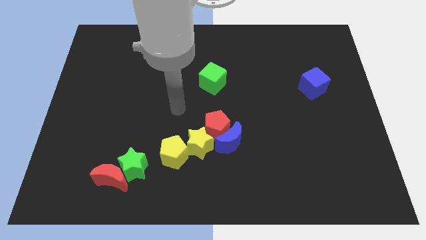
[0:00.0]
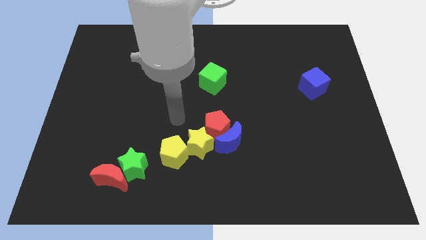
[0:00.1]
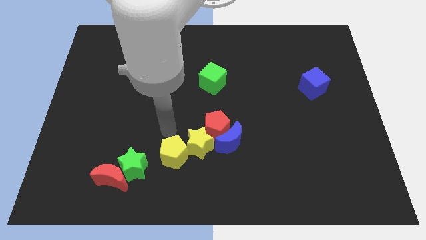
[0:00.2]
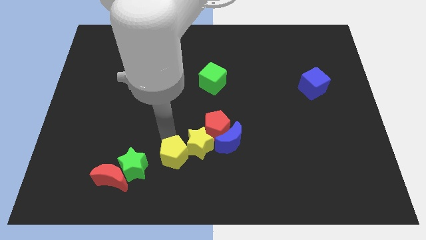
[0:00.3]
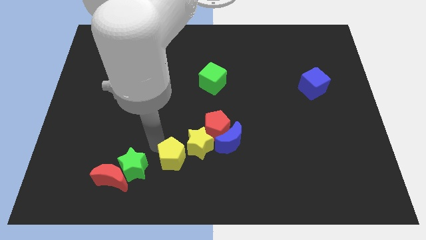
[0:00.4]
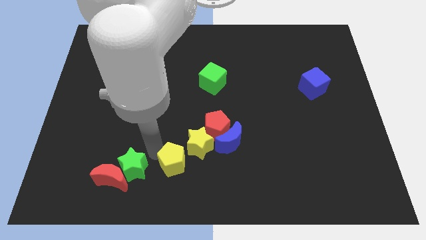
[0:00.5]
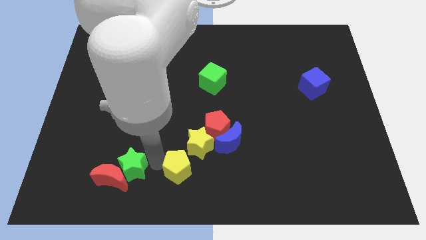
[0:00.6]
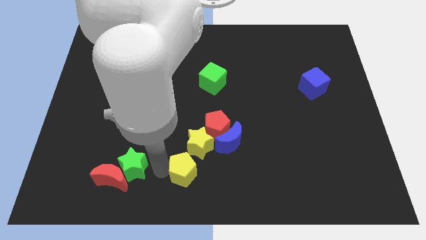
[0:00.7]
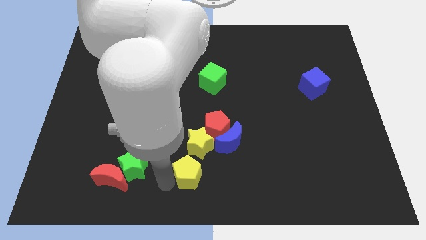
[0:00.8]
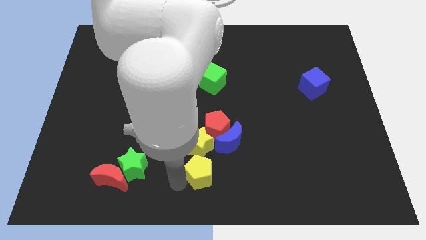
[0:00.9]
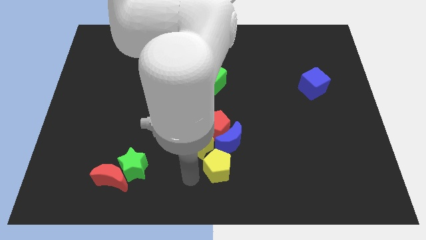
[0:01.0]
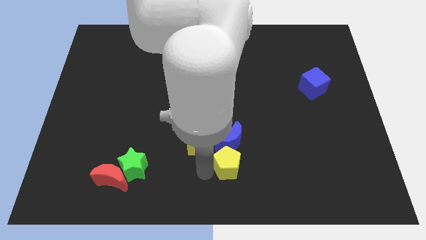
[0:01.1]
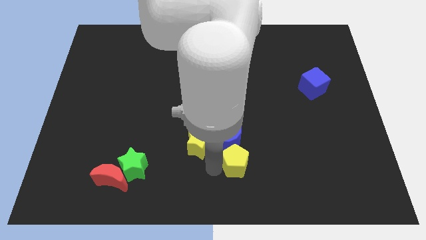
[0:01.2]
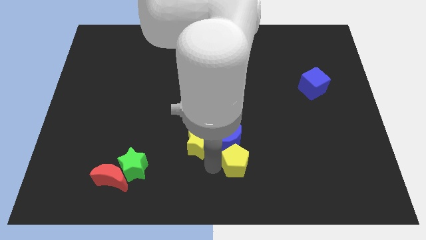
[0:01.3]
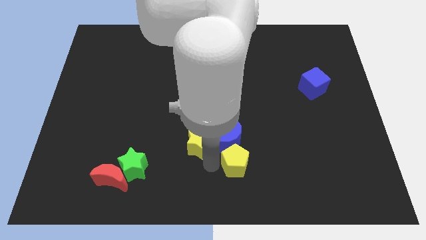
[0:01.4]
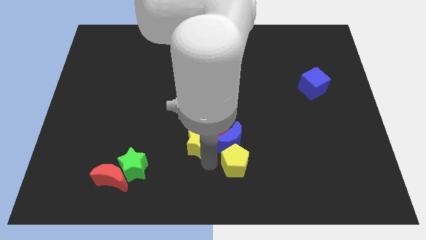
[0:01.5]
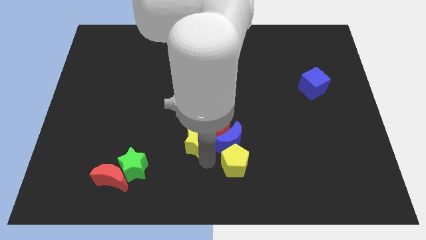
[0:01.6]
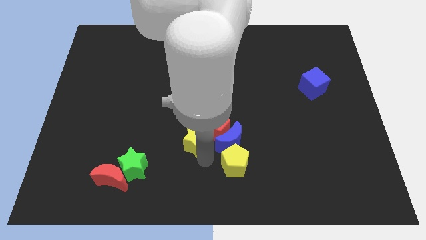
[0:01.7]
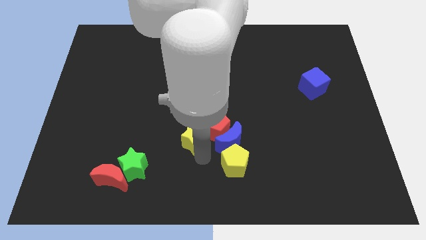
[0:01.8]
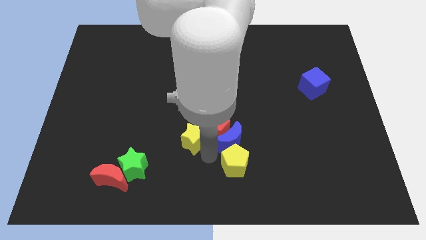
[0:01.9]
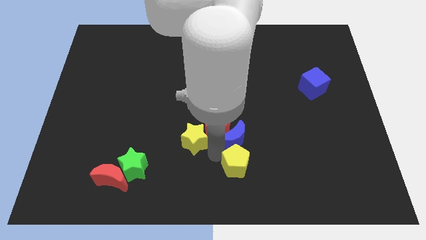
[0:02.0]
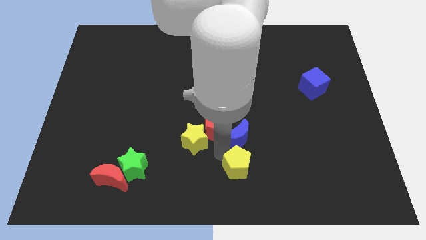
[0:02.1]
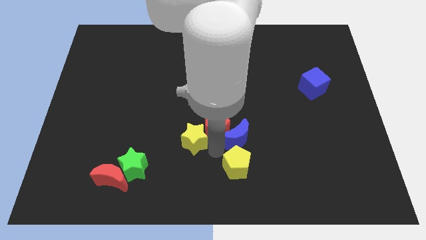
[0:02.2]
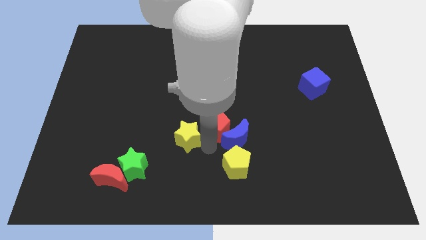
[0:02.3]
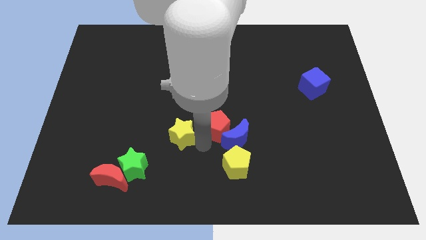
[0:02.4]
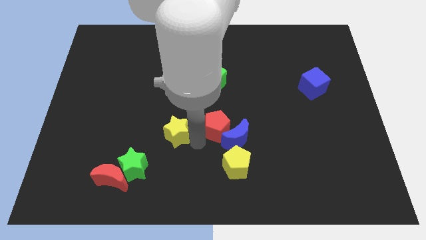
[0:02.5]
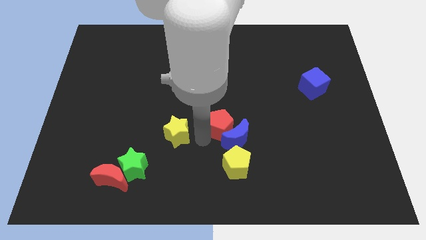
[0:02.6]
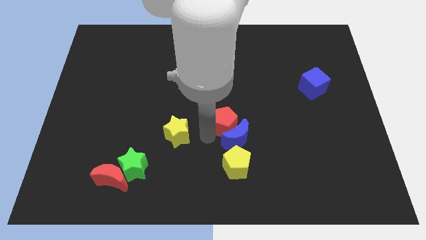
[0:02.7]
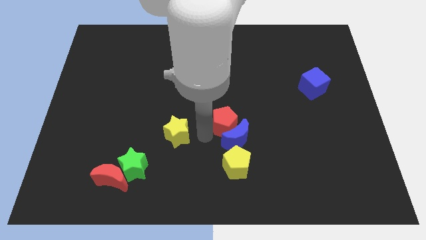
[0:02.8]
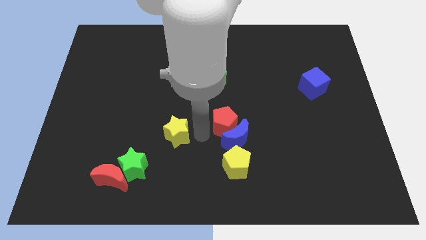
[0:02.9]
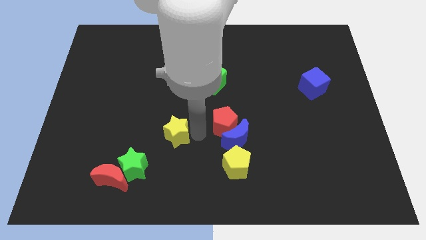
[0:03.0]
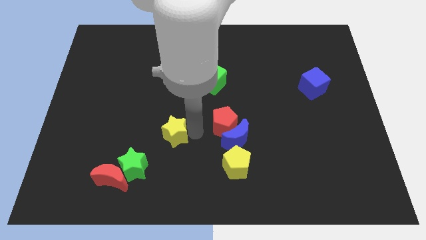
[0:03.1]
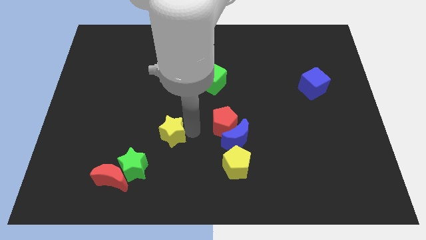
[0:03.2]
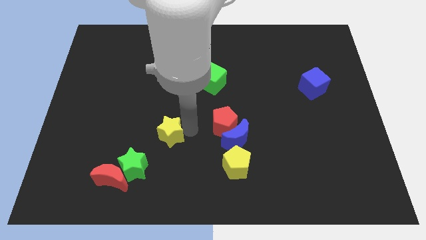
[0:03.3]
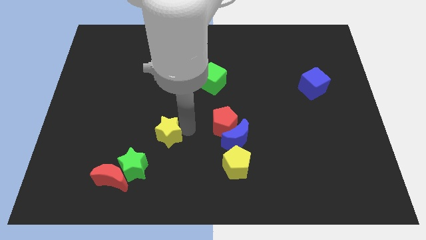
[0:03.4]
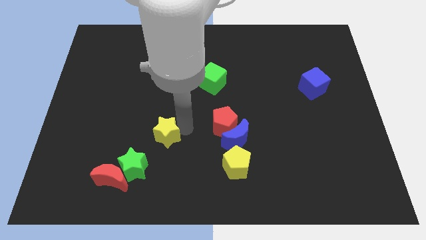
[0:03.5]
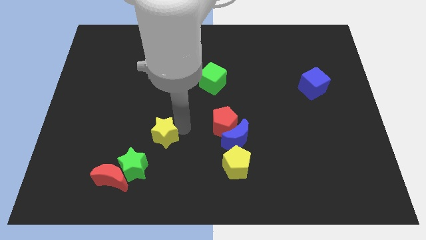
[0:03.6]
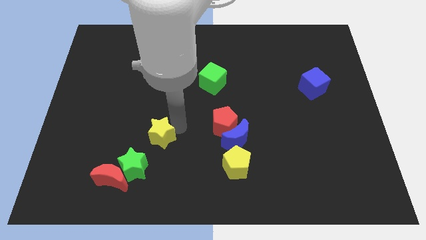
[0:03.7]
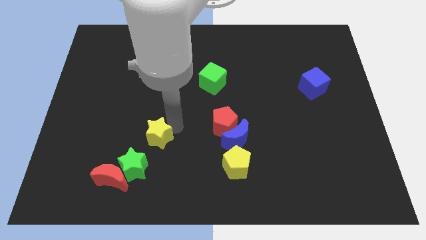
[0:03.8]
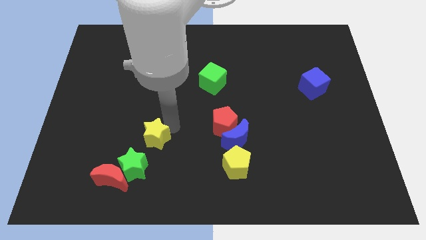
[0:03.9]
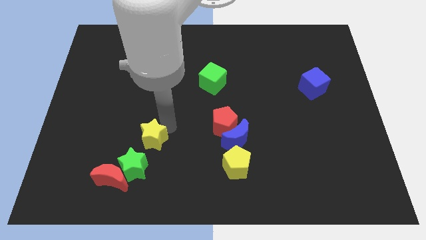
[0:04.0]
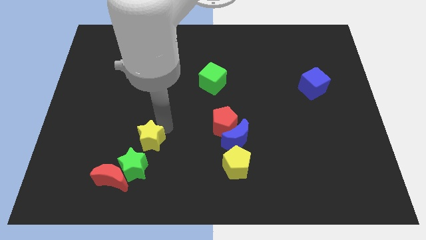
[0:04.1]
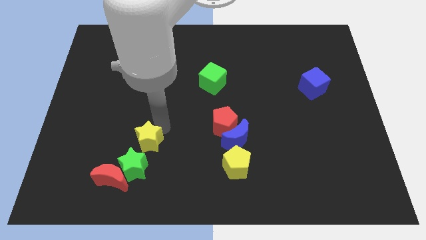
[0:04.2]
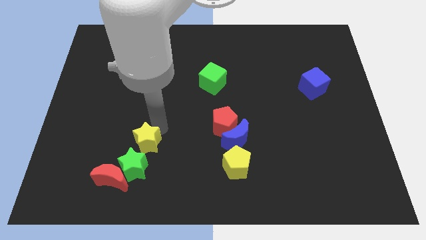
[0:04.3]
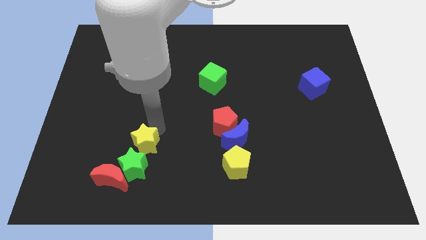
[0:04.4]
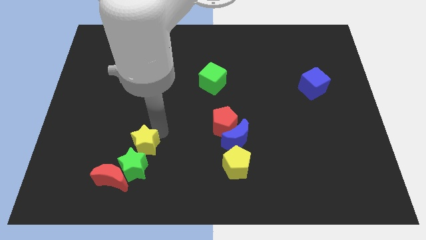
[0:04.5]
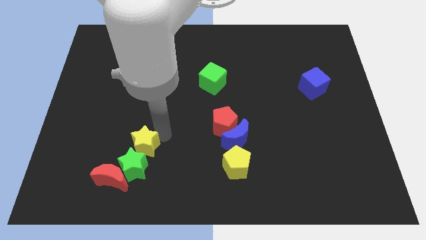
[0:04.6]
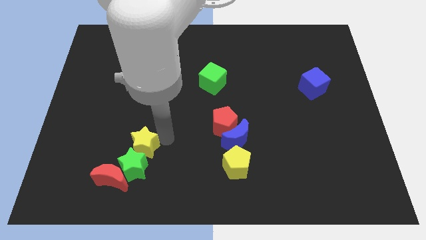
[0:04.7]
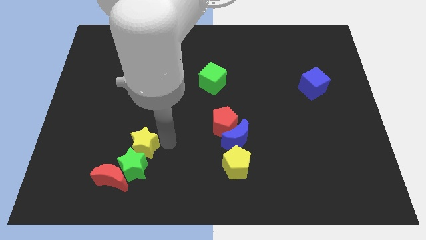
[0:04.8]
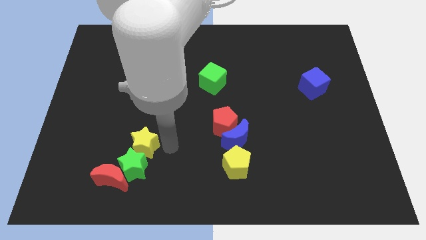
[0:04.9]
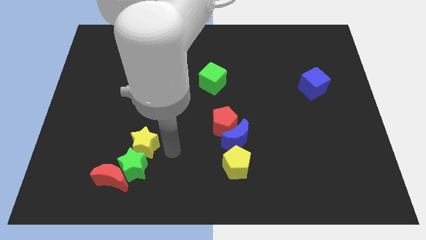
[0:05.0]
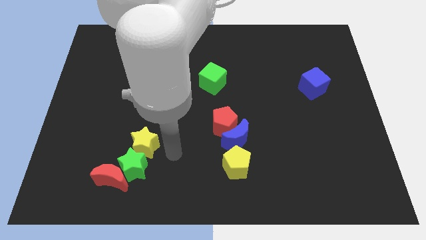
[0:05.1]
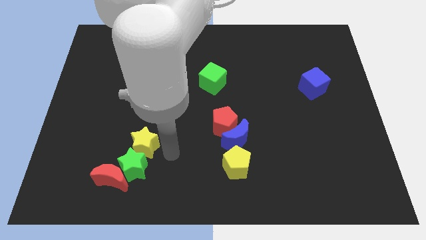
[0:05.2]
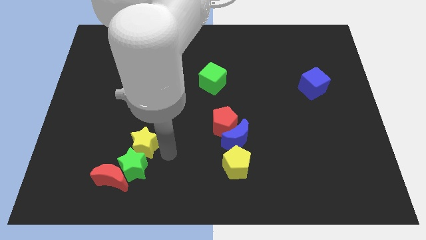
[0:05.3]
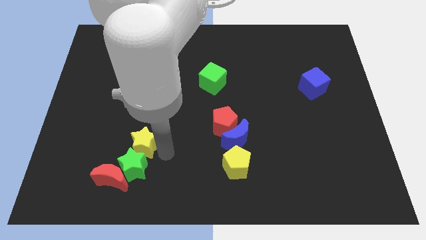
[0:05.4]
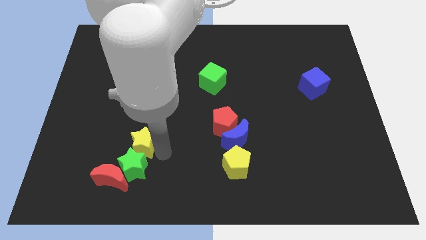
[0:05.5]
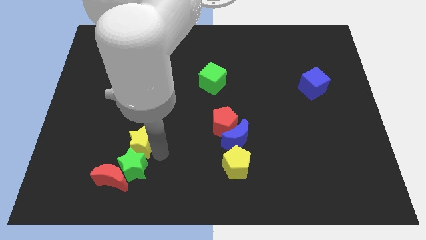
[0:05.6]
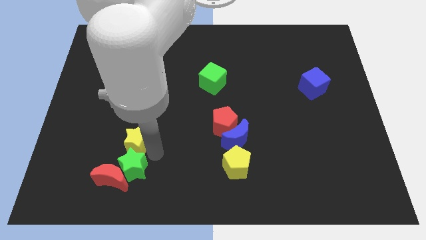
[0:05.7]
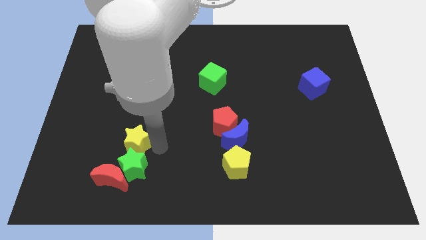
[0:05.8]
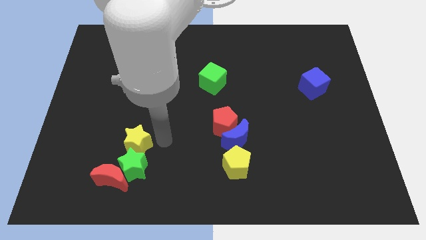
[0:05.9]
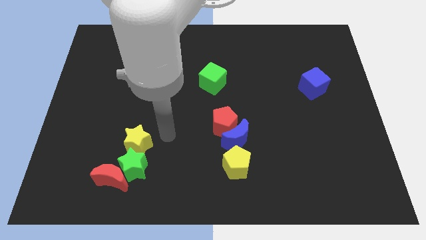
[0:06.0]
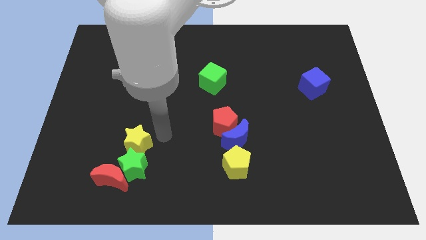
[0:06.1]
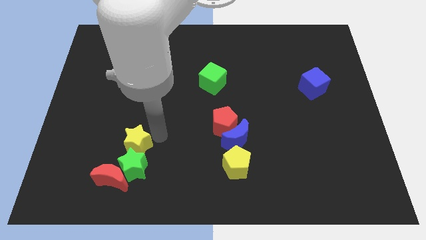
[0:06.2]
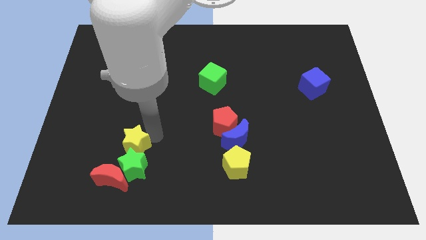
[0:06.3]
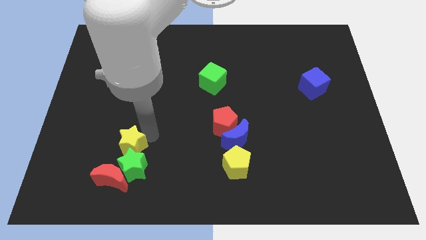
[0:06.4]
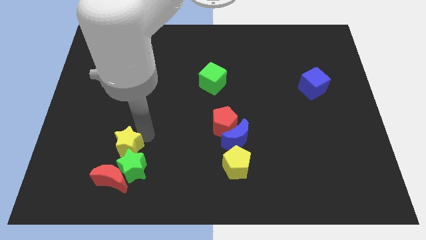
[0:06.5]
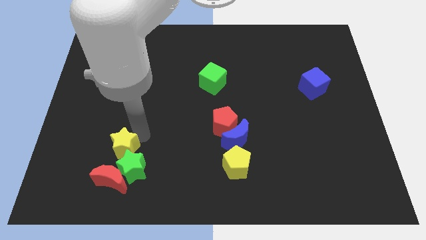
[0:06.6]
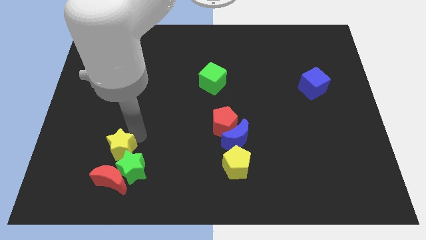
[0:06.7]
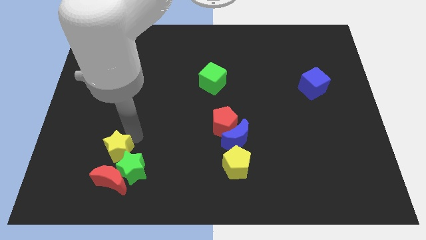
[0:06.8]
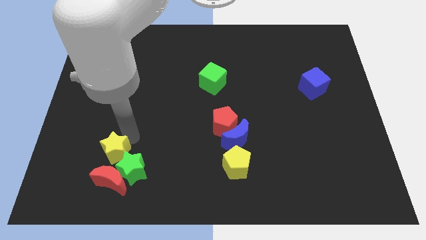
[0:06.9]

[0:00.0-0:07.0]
slide the yellow star to the top left side of the red moon

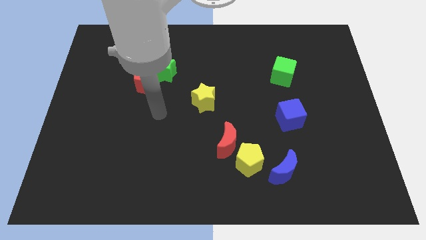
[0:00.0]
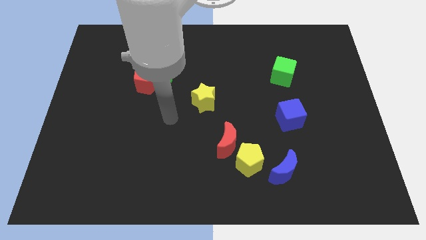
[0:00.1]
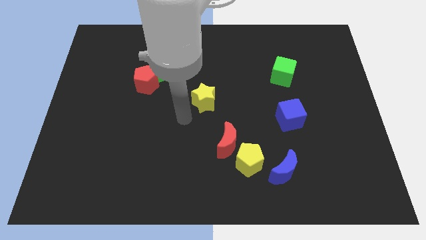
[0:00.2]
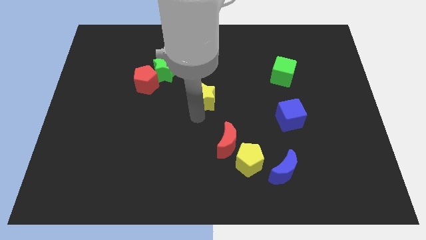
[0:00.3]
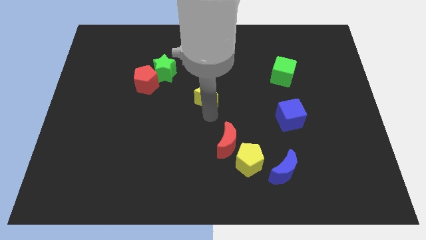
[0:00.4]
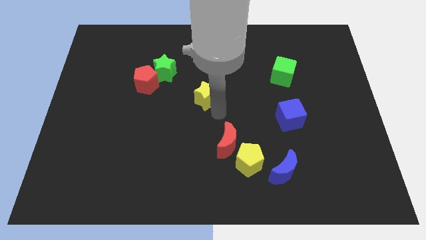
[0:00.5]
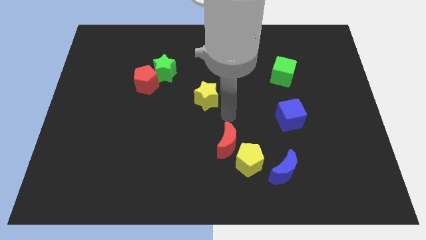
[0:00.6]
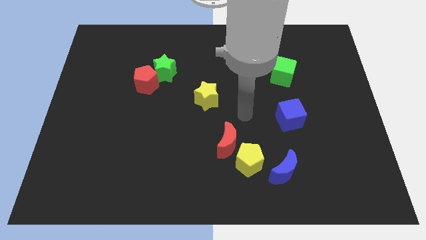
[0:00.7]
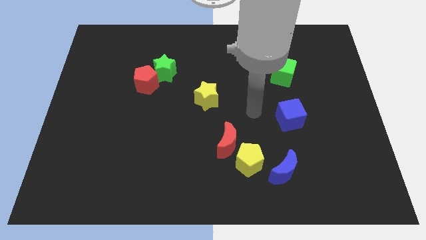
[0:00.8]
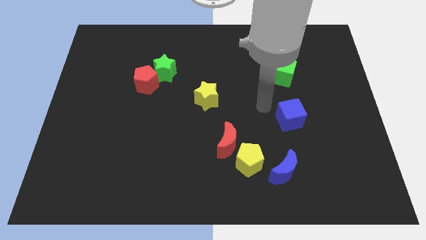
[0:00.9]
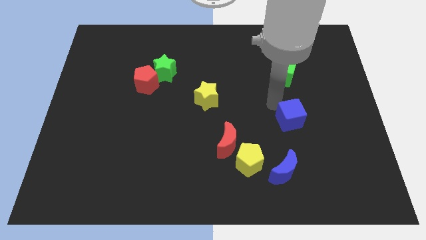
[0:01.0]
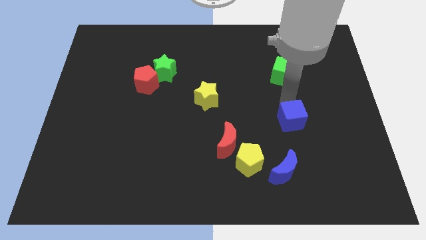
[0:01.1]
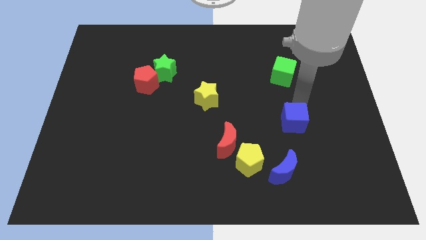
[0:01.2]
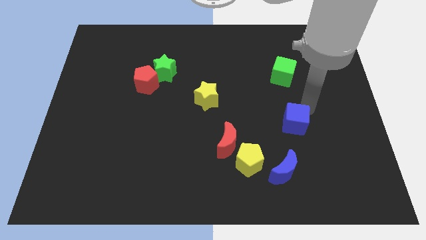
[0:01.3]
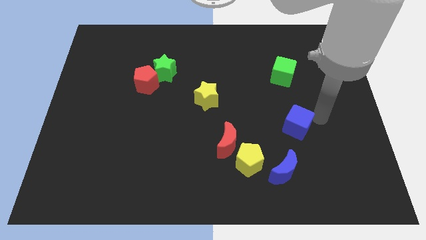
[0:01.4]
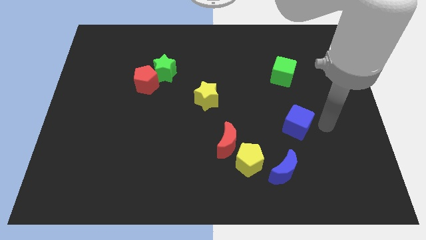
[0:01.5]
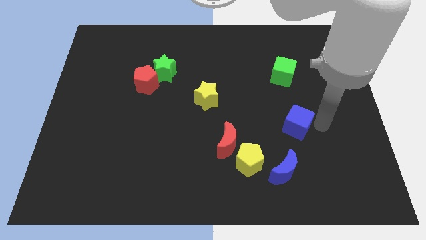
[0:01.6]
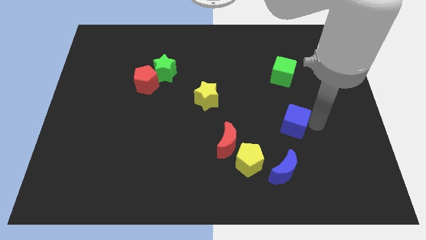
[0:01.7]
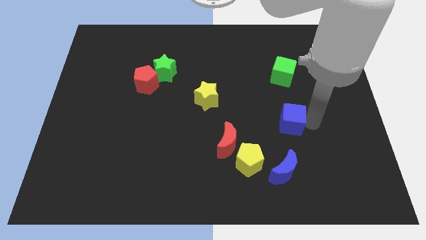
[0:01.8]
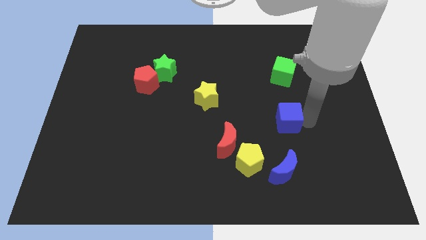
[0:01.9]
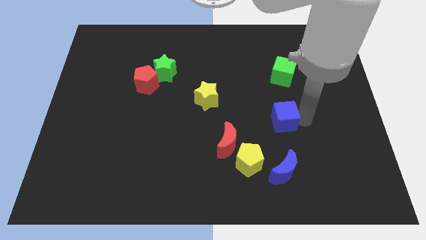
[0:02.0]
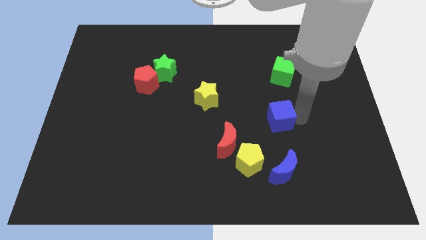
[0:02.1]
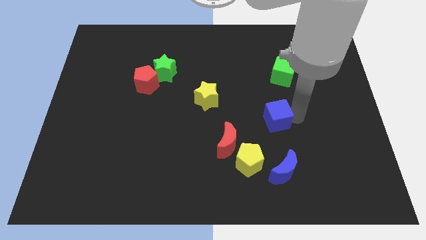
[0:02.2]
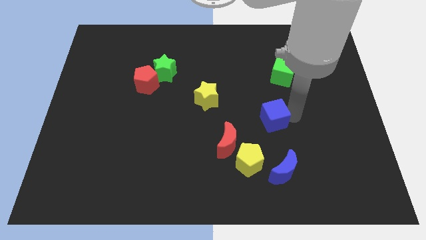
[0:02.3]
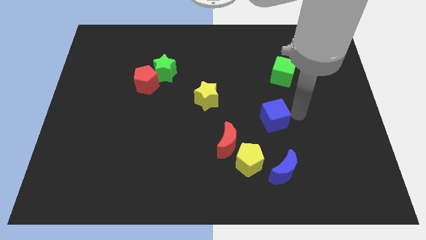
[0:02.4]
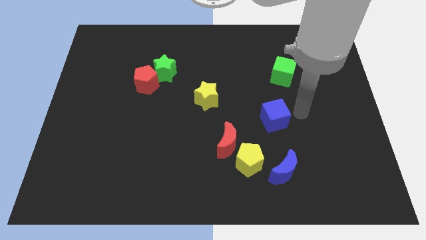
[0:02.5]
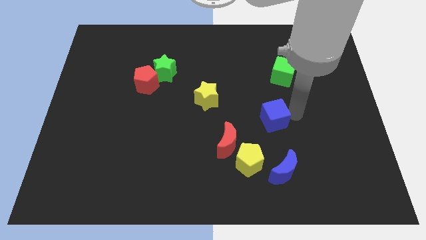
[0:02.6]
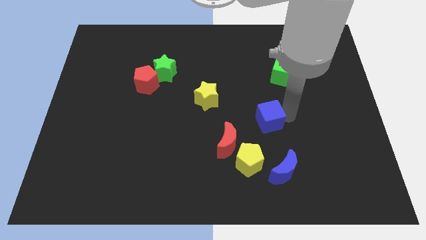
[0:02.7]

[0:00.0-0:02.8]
put the blue cube to the top right side of the red moon
